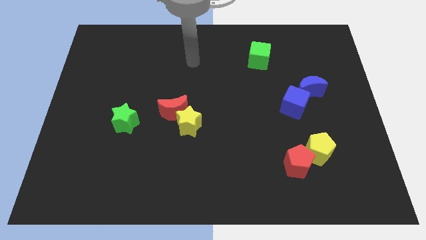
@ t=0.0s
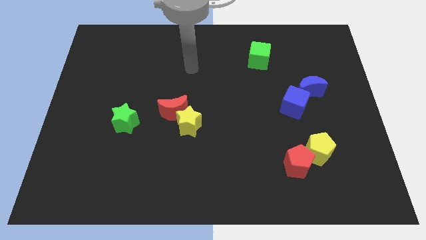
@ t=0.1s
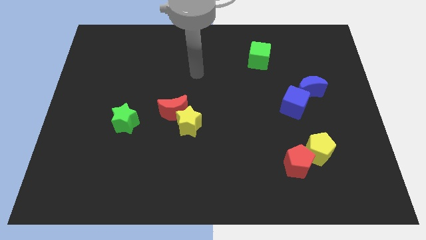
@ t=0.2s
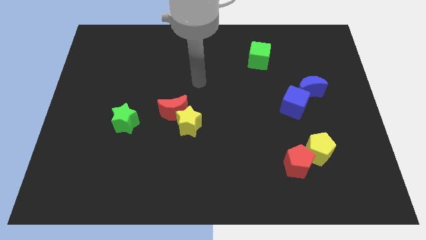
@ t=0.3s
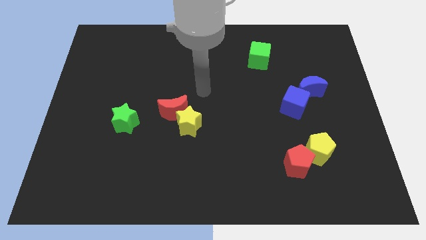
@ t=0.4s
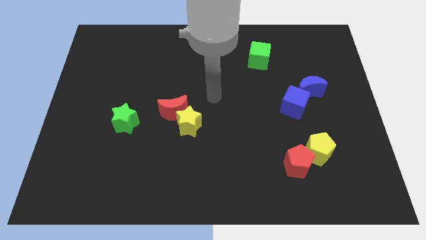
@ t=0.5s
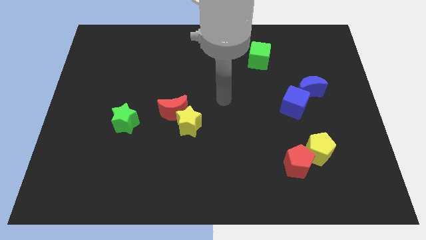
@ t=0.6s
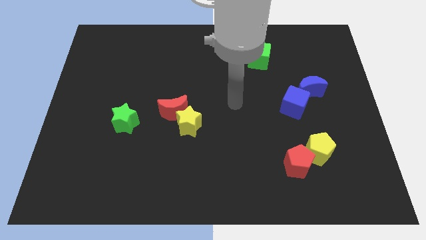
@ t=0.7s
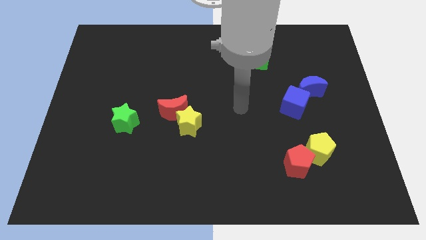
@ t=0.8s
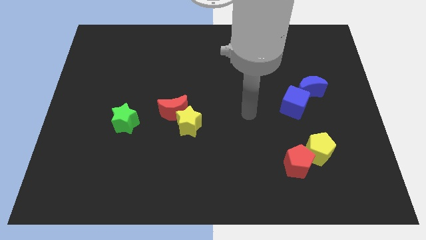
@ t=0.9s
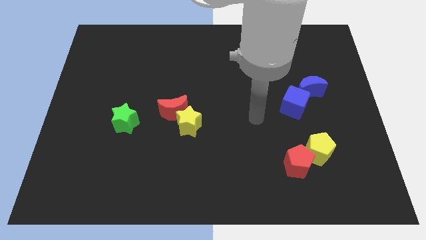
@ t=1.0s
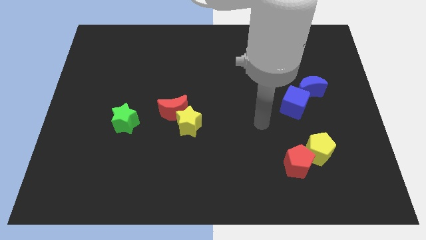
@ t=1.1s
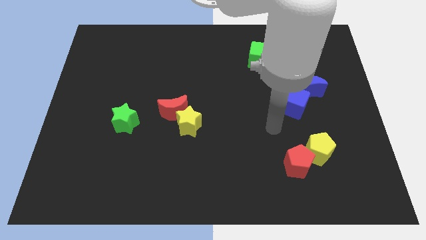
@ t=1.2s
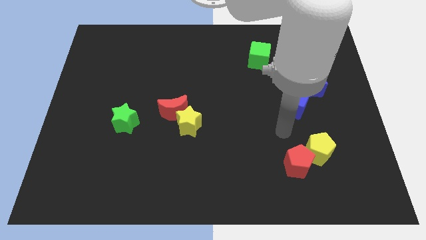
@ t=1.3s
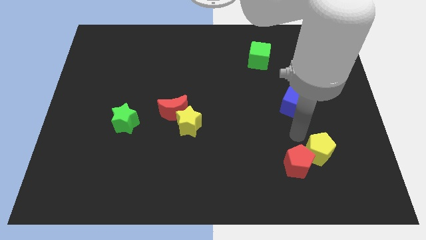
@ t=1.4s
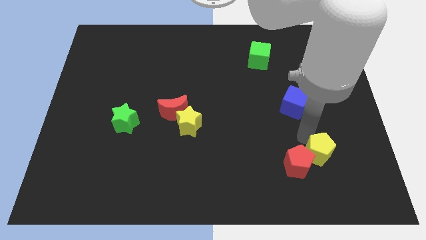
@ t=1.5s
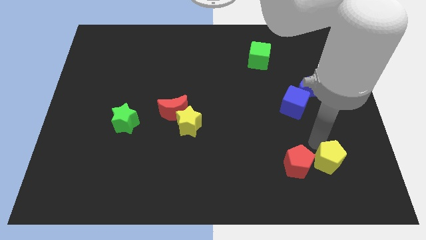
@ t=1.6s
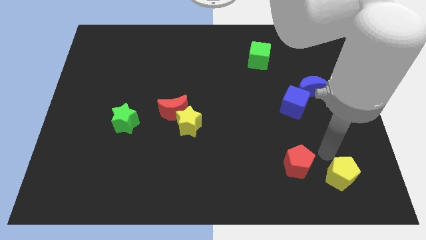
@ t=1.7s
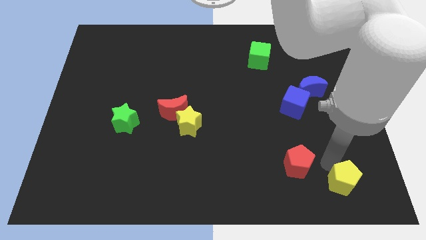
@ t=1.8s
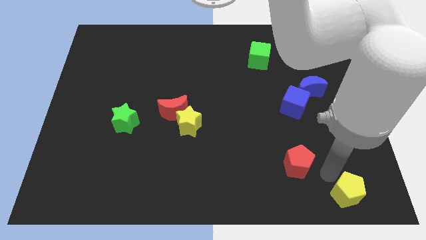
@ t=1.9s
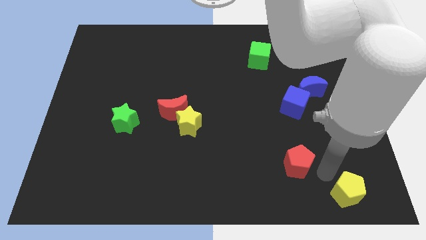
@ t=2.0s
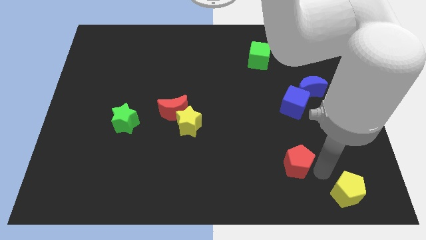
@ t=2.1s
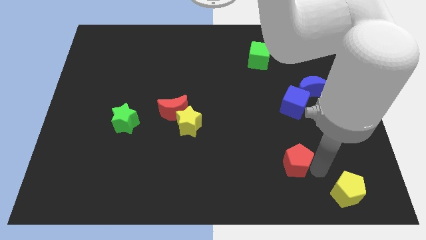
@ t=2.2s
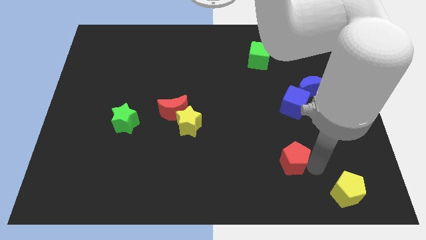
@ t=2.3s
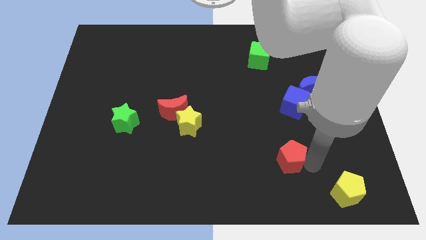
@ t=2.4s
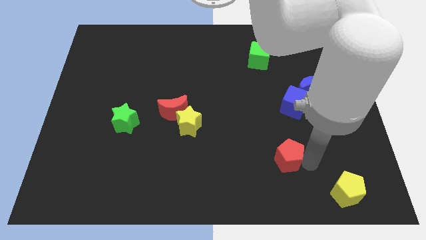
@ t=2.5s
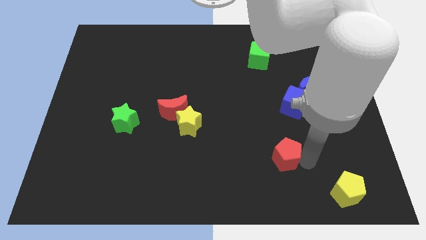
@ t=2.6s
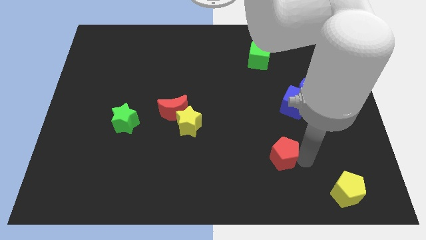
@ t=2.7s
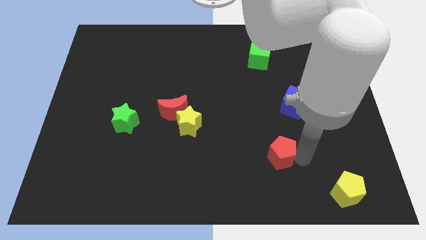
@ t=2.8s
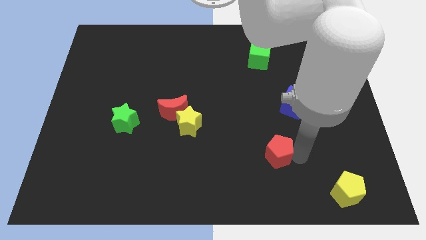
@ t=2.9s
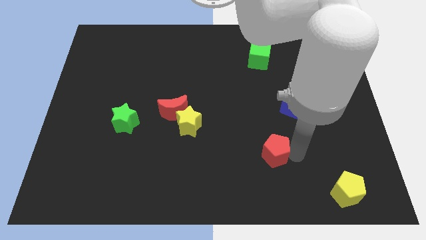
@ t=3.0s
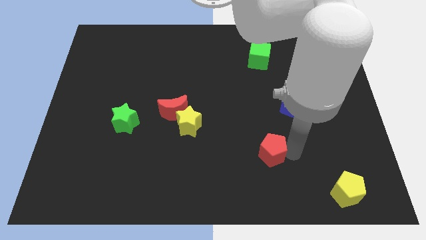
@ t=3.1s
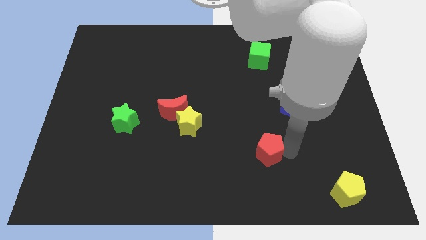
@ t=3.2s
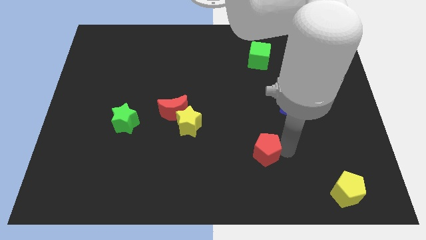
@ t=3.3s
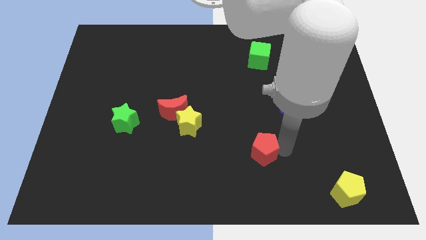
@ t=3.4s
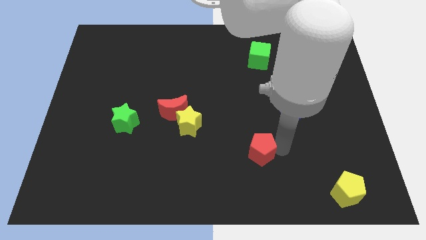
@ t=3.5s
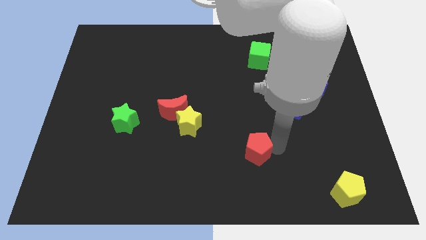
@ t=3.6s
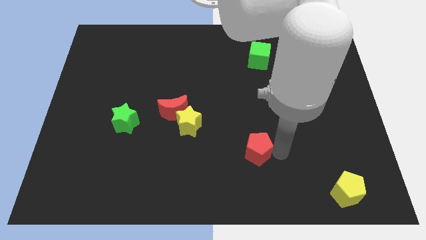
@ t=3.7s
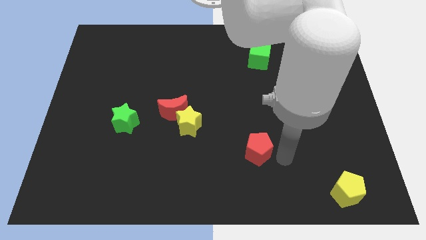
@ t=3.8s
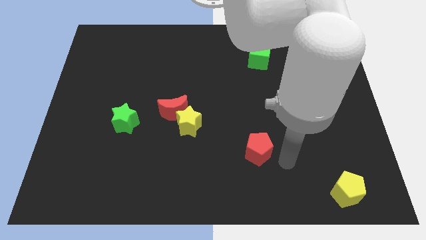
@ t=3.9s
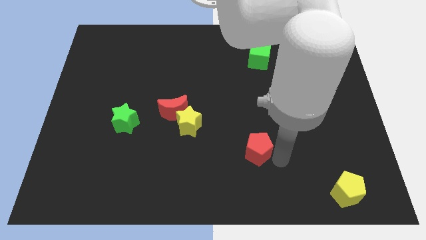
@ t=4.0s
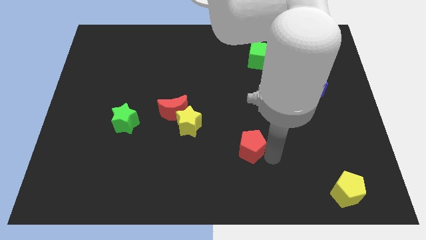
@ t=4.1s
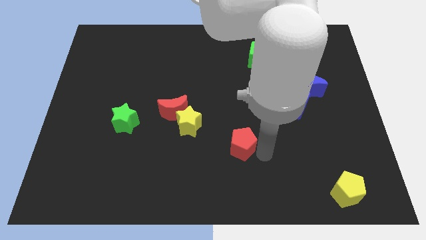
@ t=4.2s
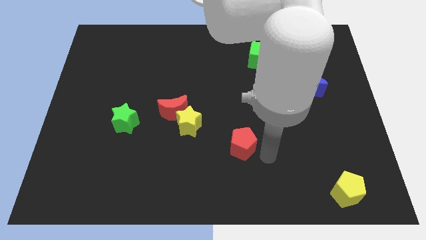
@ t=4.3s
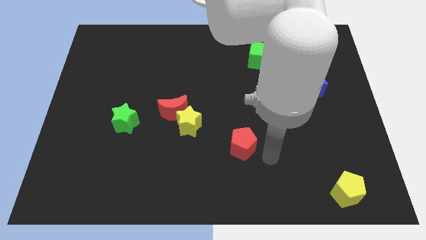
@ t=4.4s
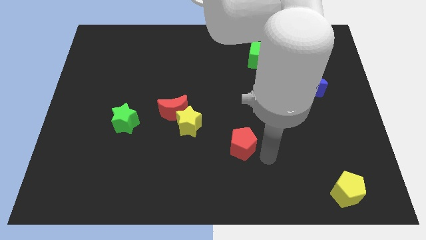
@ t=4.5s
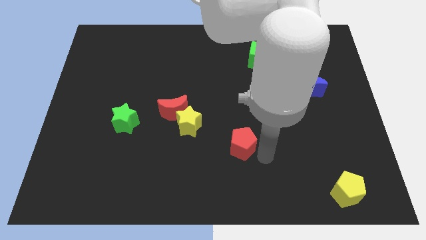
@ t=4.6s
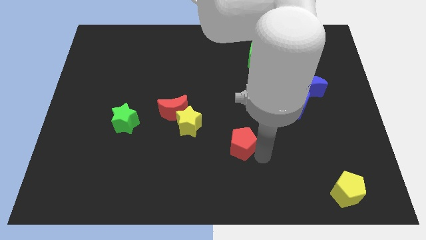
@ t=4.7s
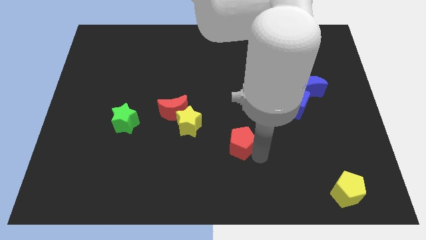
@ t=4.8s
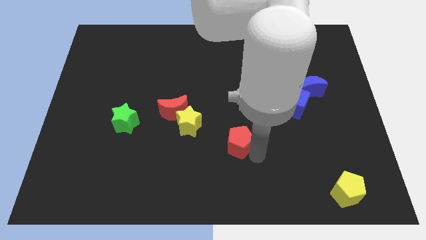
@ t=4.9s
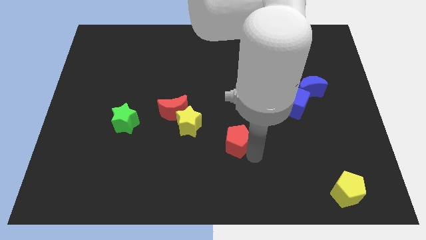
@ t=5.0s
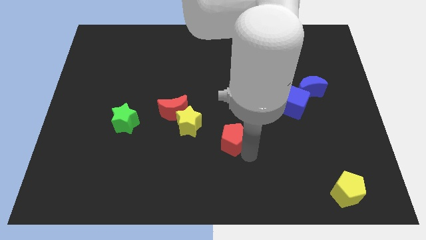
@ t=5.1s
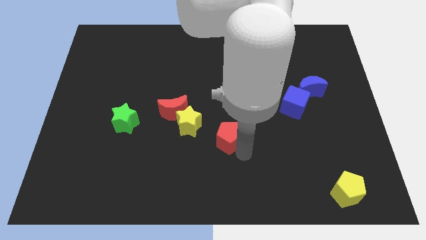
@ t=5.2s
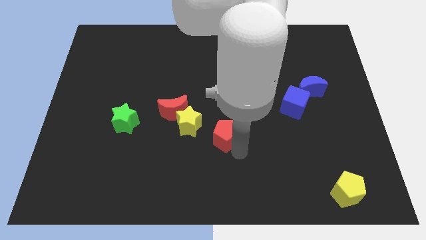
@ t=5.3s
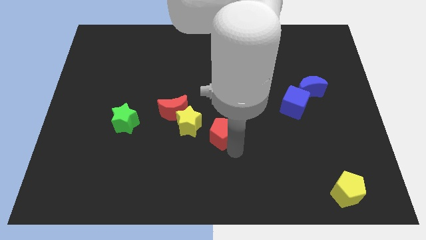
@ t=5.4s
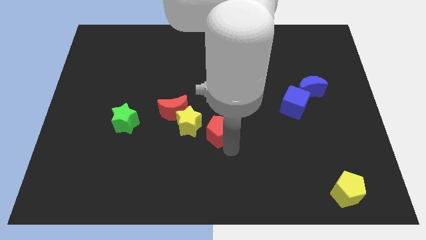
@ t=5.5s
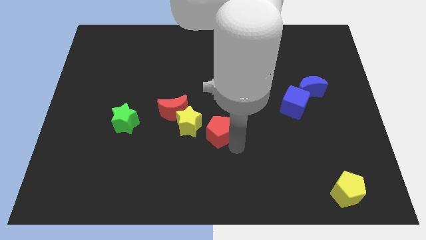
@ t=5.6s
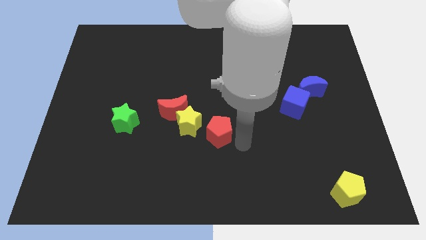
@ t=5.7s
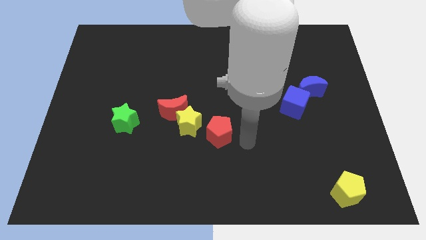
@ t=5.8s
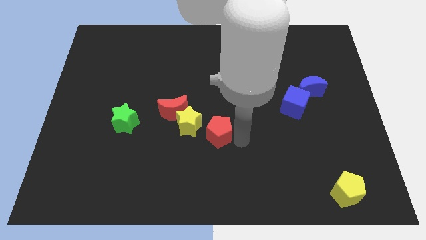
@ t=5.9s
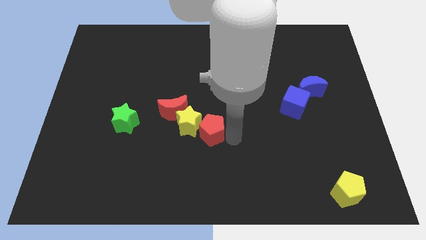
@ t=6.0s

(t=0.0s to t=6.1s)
put the red pentagon close to the yellow star
